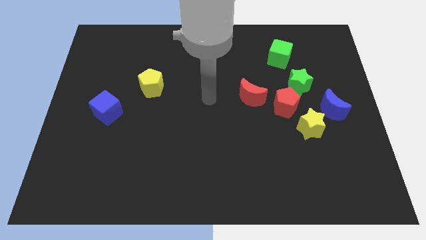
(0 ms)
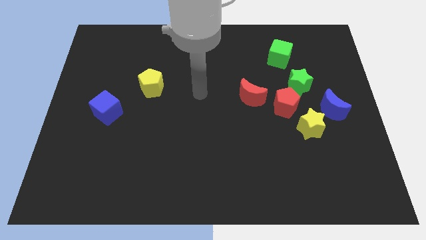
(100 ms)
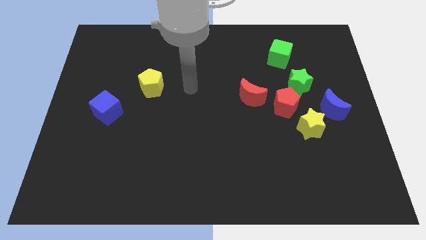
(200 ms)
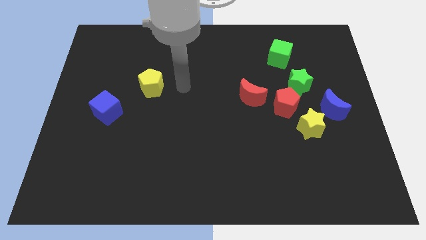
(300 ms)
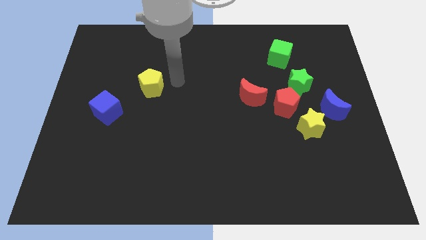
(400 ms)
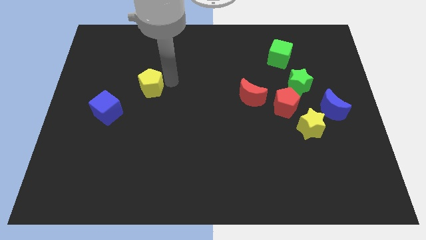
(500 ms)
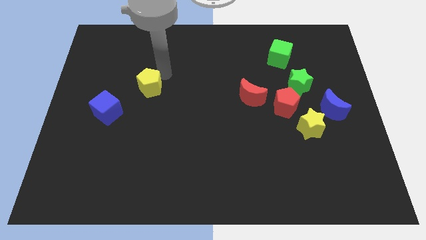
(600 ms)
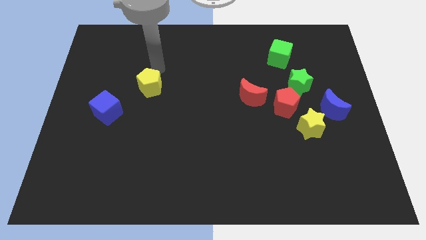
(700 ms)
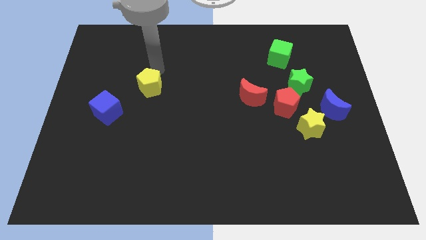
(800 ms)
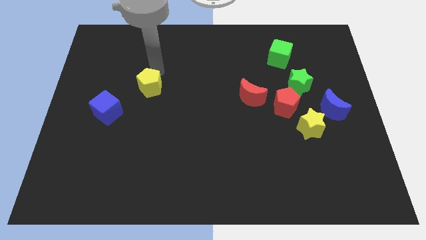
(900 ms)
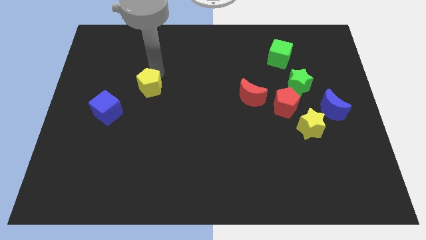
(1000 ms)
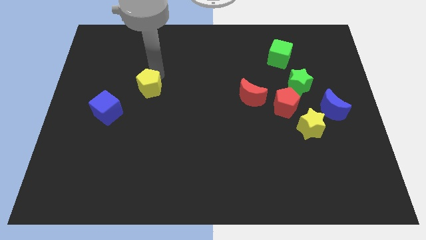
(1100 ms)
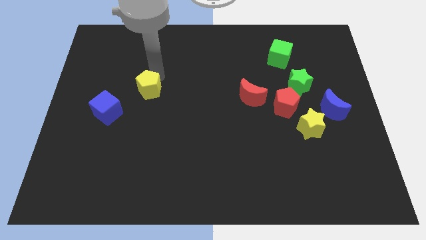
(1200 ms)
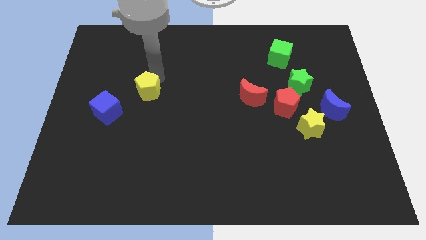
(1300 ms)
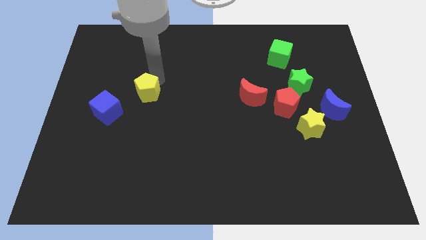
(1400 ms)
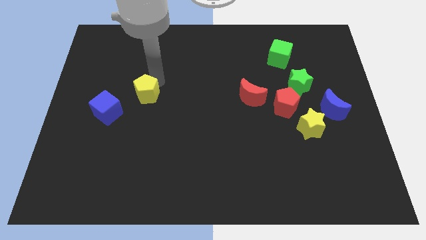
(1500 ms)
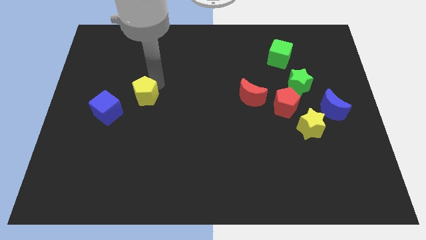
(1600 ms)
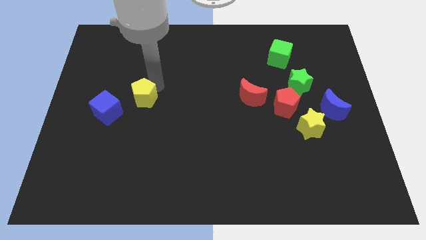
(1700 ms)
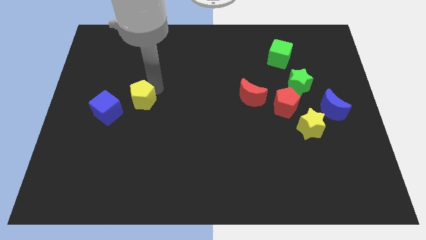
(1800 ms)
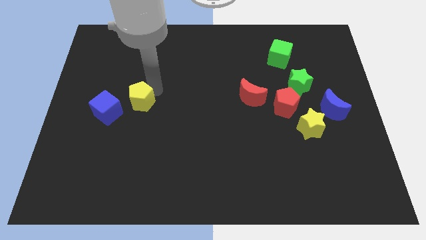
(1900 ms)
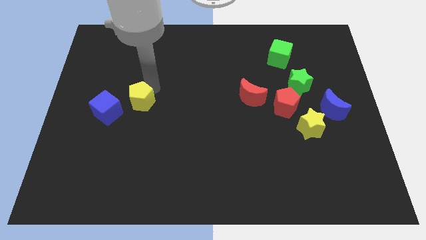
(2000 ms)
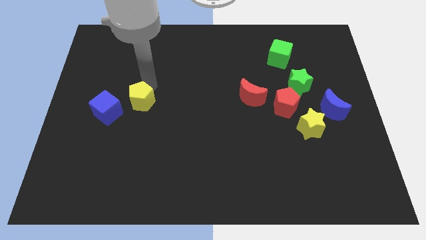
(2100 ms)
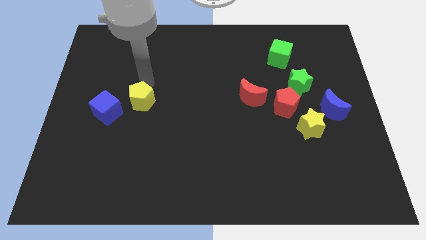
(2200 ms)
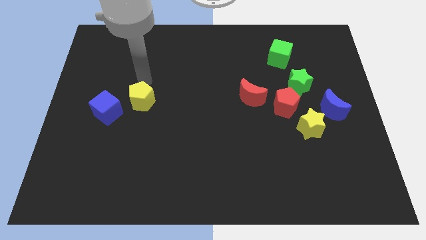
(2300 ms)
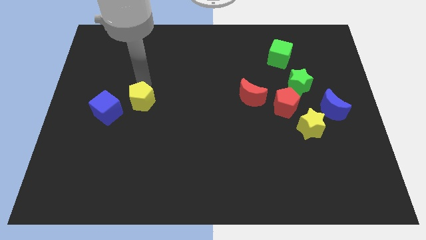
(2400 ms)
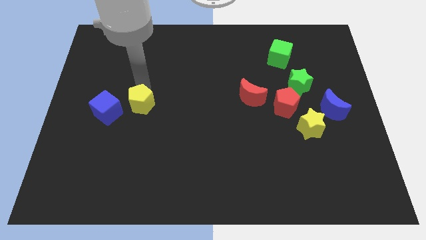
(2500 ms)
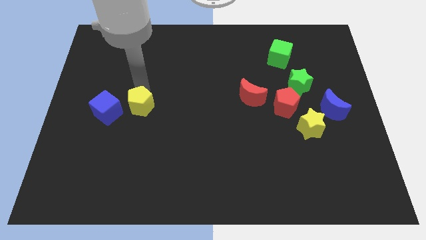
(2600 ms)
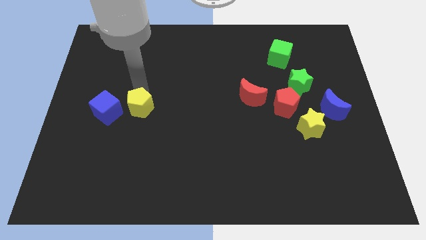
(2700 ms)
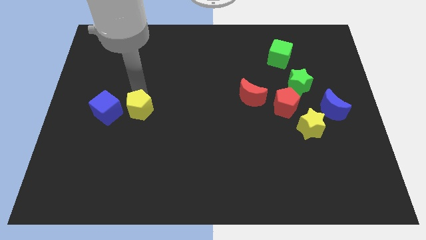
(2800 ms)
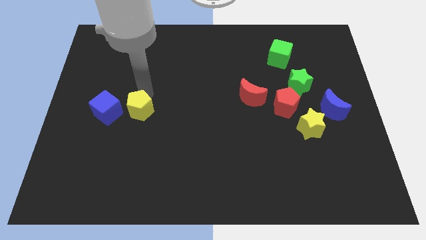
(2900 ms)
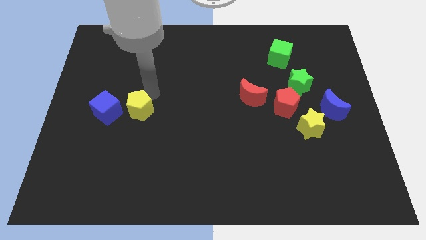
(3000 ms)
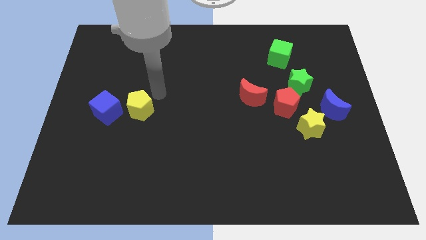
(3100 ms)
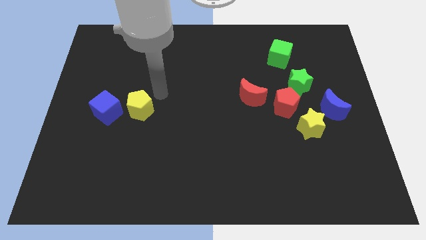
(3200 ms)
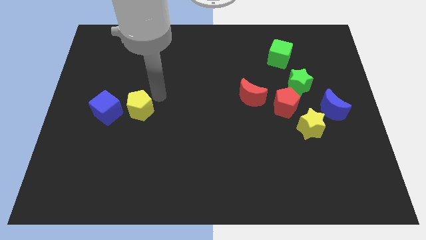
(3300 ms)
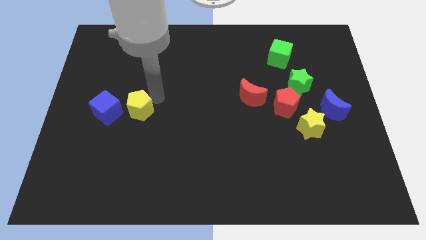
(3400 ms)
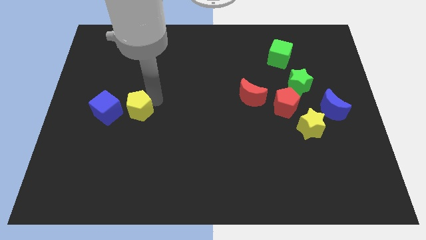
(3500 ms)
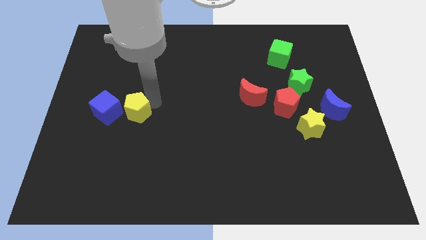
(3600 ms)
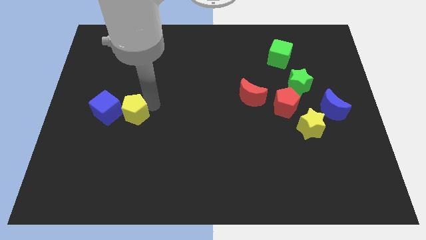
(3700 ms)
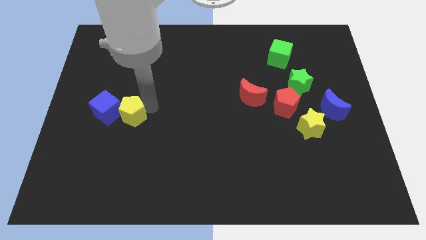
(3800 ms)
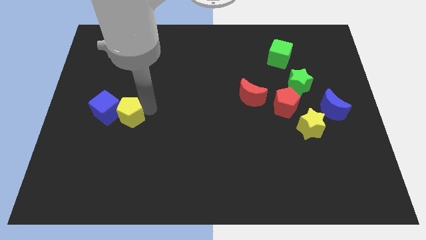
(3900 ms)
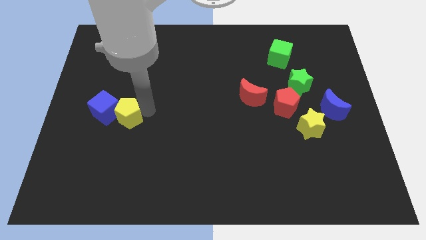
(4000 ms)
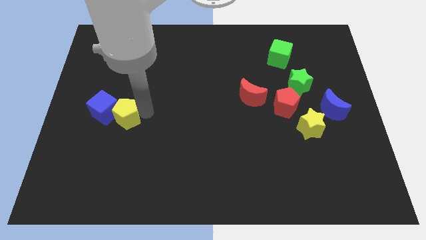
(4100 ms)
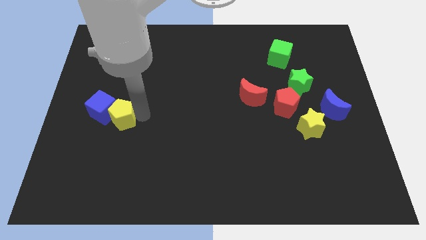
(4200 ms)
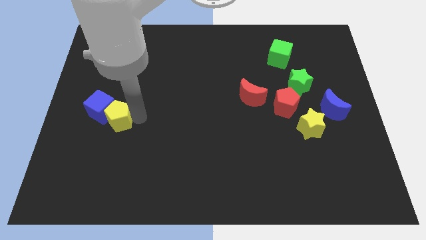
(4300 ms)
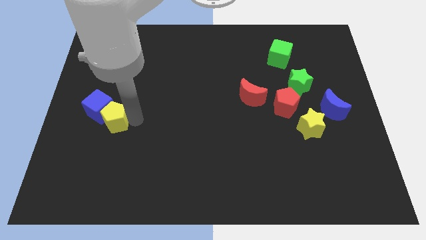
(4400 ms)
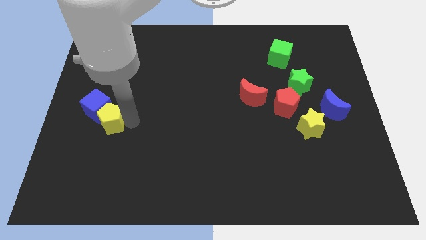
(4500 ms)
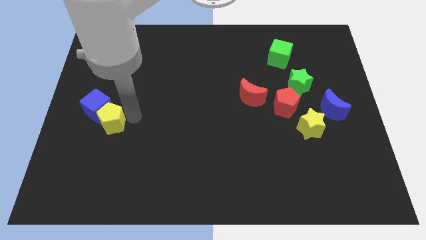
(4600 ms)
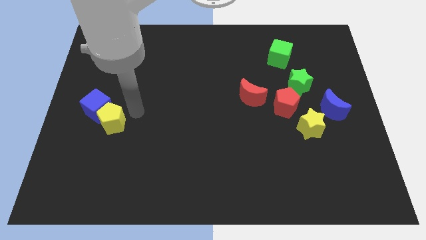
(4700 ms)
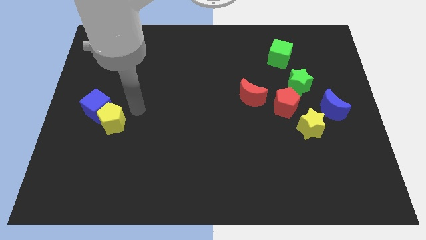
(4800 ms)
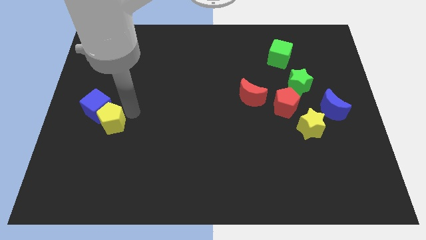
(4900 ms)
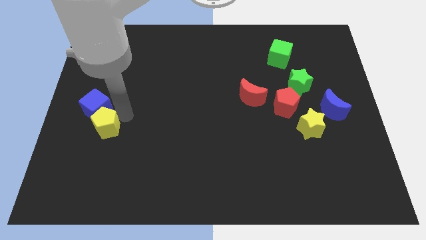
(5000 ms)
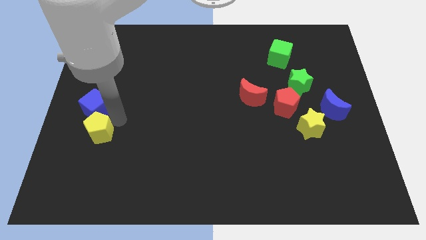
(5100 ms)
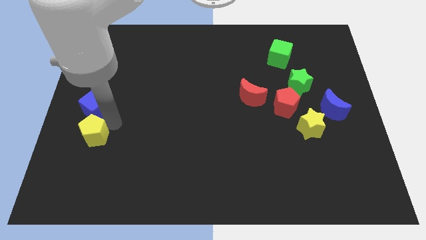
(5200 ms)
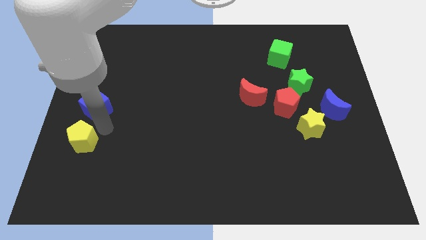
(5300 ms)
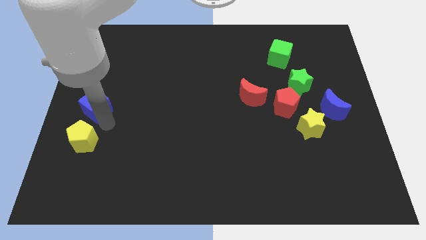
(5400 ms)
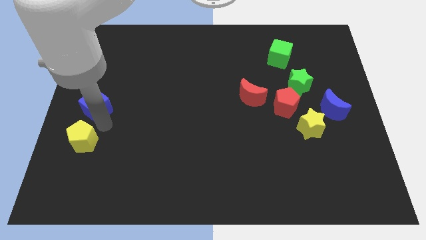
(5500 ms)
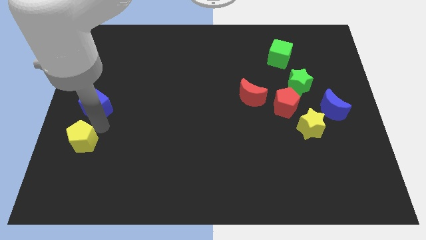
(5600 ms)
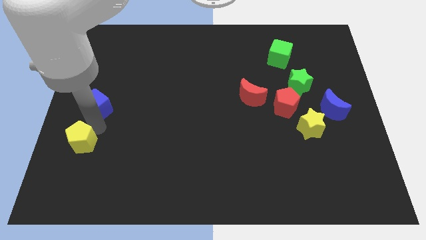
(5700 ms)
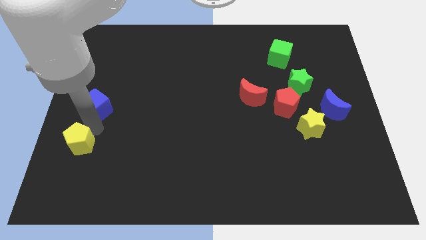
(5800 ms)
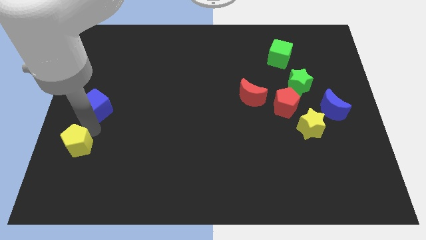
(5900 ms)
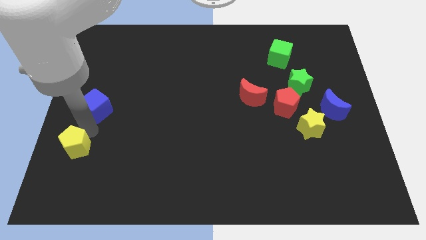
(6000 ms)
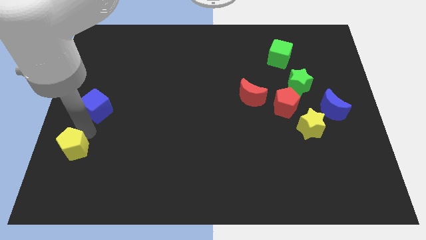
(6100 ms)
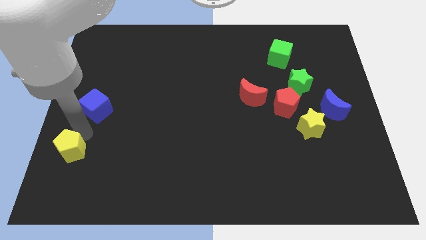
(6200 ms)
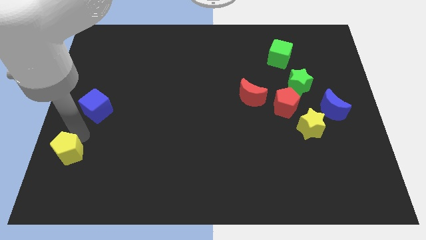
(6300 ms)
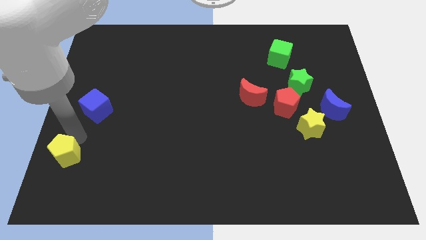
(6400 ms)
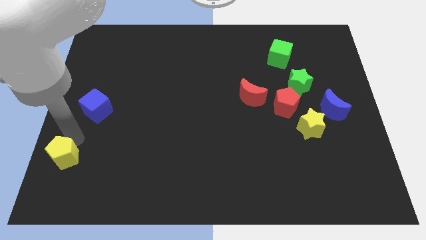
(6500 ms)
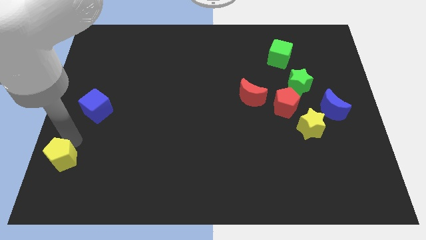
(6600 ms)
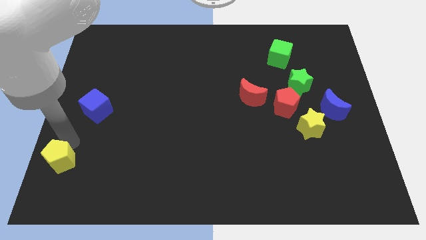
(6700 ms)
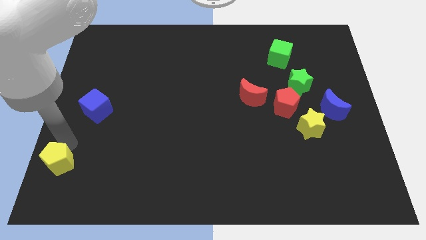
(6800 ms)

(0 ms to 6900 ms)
push the yellow pentagon to the bottom left of the board

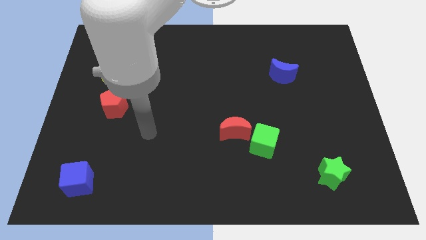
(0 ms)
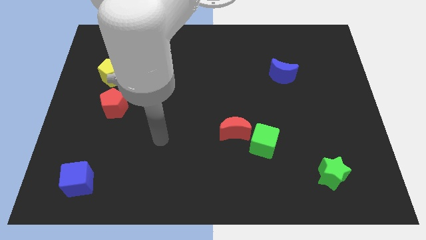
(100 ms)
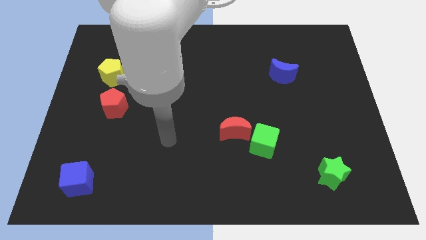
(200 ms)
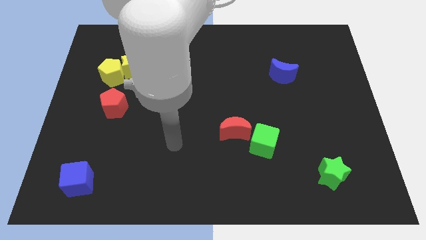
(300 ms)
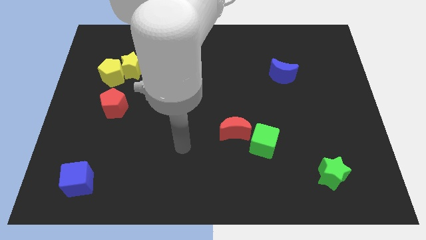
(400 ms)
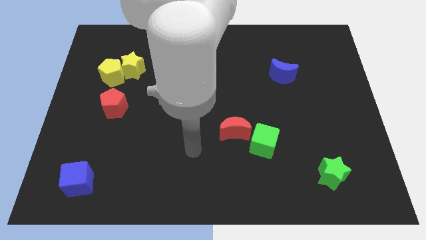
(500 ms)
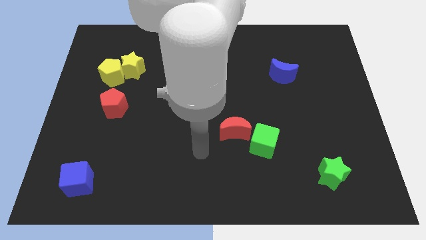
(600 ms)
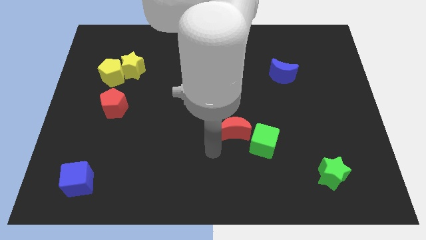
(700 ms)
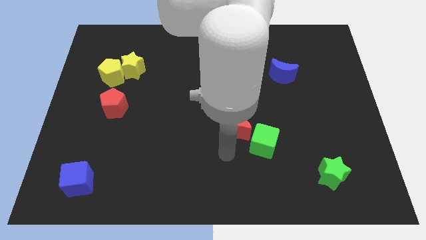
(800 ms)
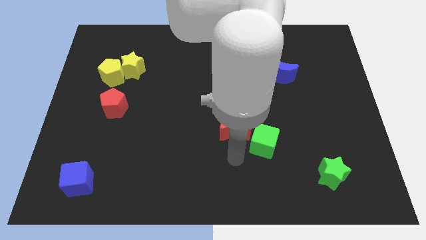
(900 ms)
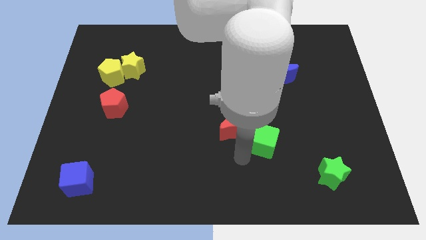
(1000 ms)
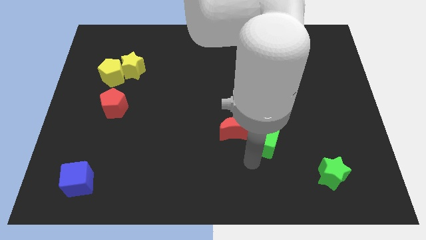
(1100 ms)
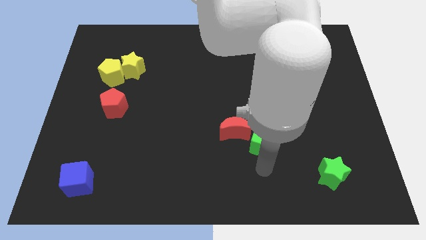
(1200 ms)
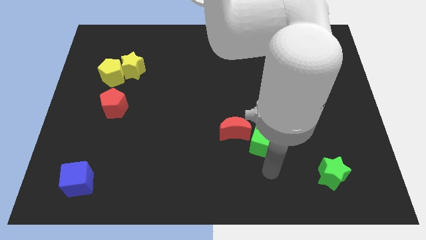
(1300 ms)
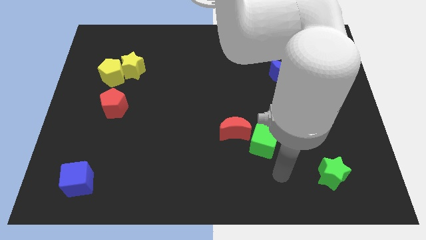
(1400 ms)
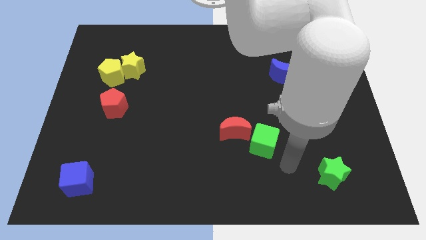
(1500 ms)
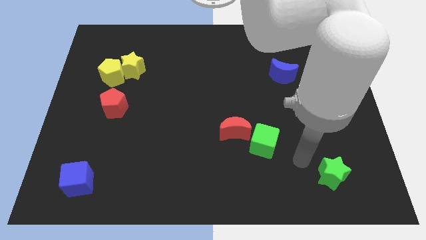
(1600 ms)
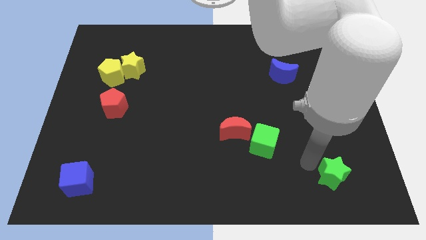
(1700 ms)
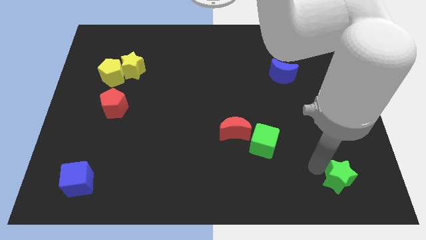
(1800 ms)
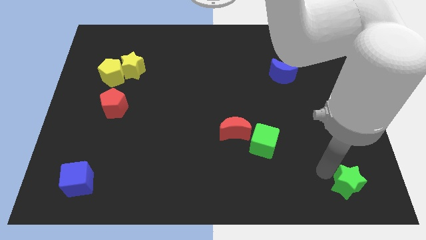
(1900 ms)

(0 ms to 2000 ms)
push the green star to the lower right corner
